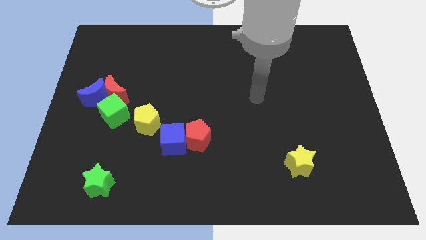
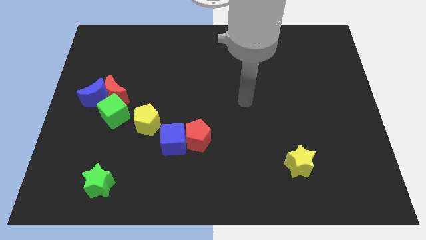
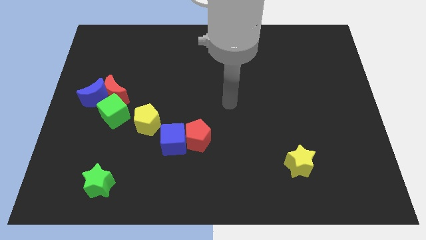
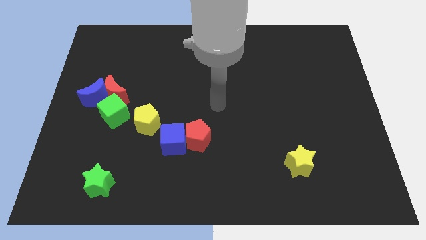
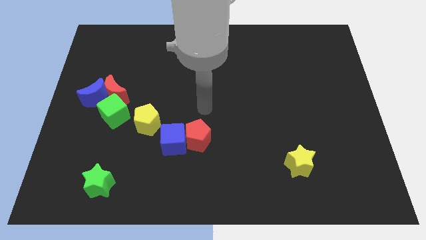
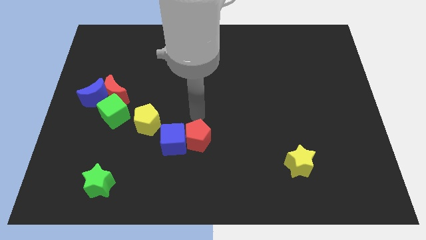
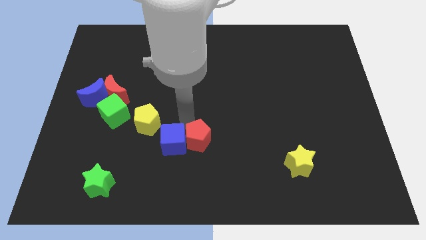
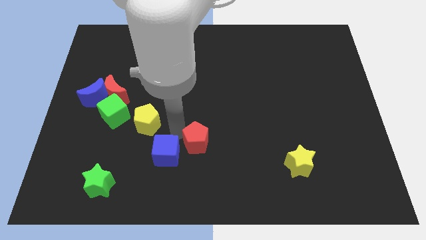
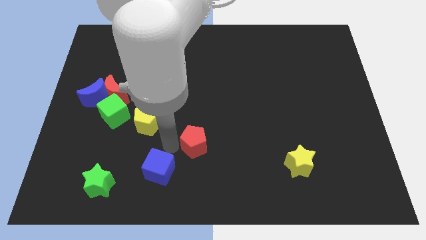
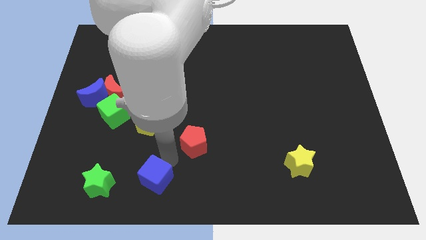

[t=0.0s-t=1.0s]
move the red pentagon away from the blue cube

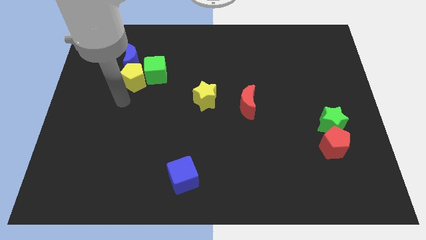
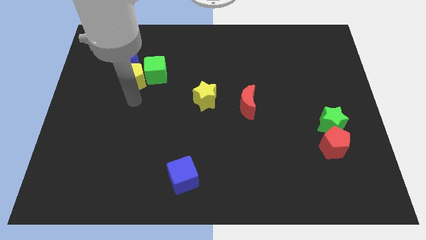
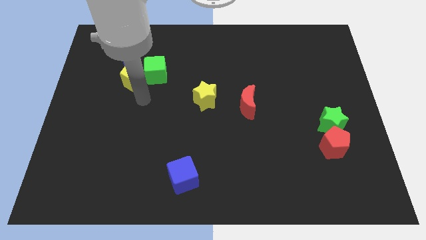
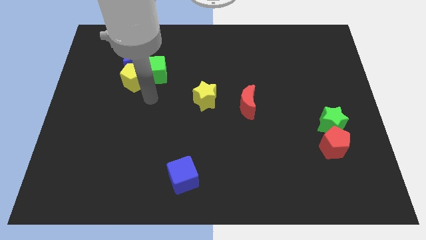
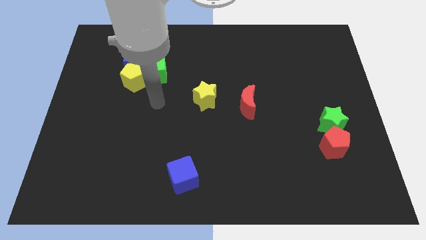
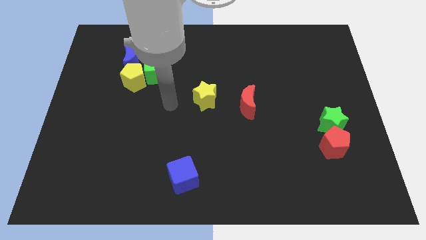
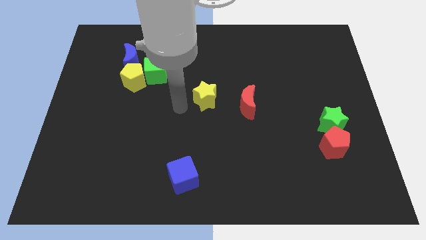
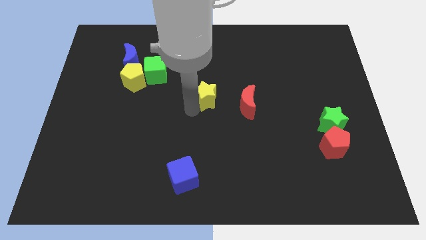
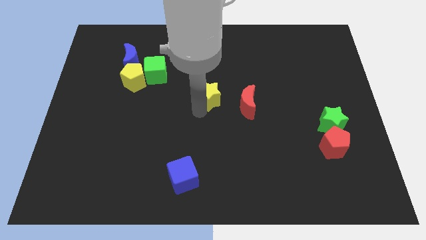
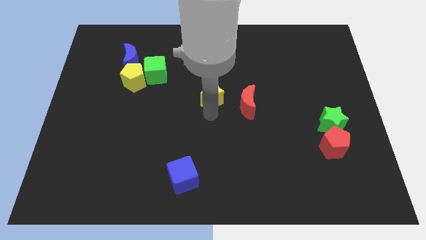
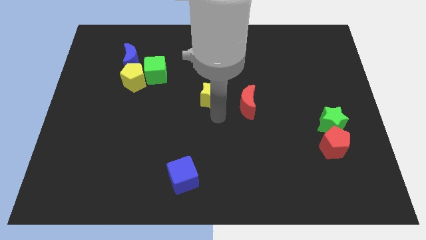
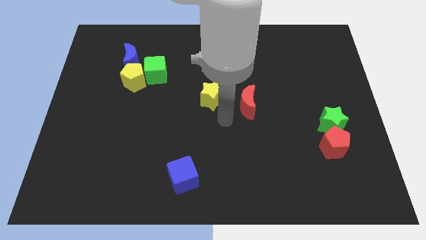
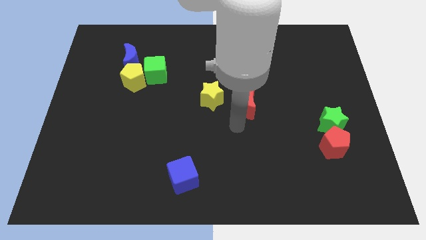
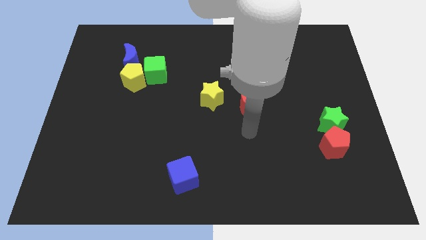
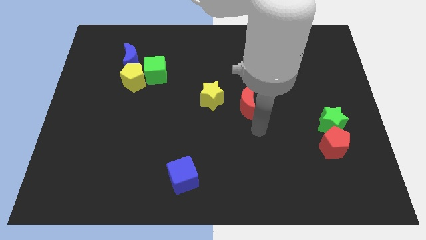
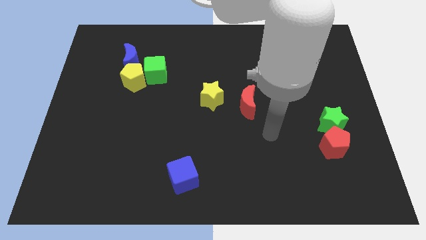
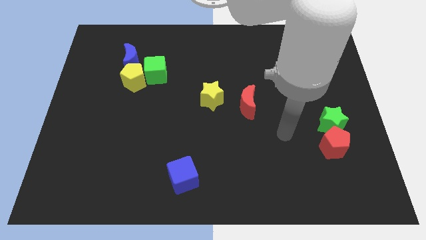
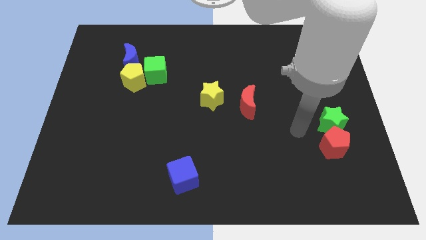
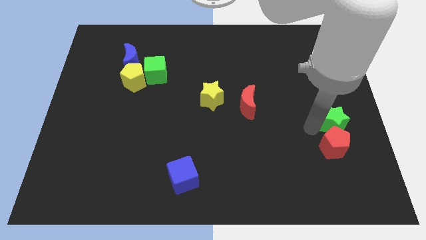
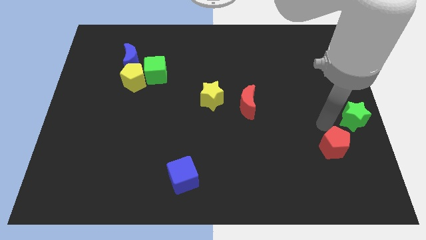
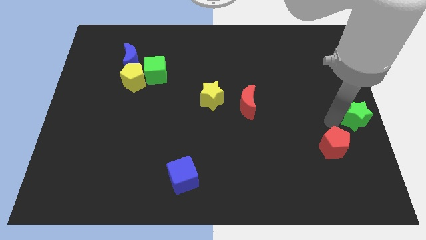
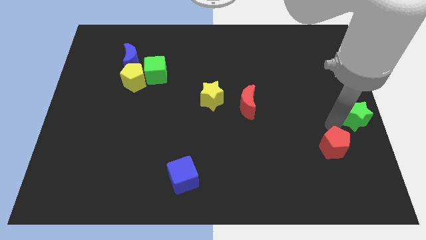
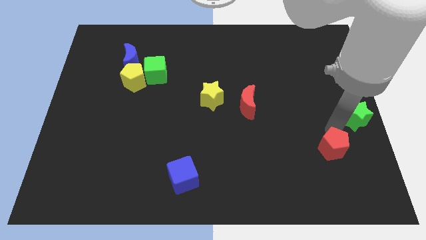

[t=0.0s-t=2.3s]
pull the red pentagon apart from the green star

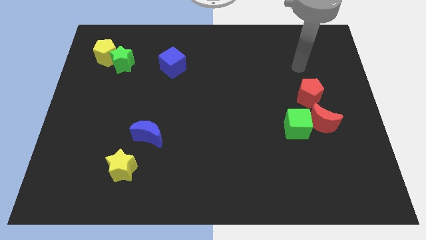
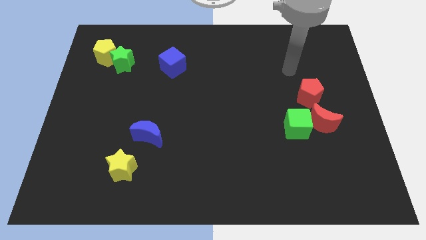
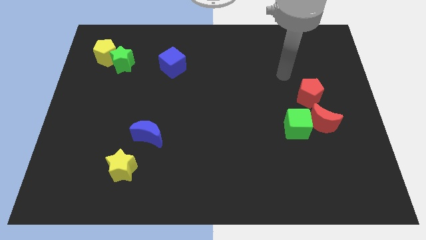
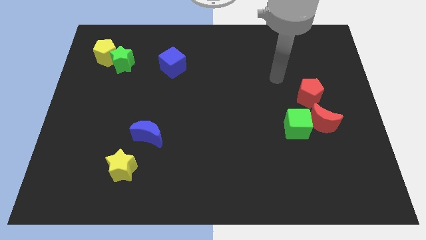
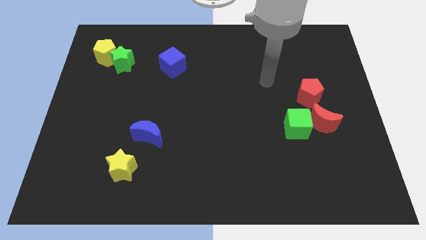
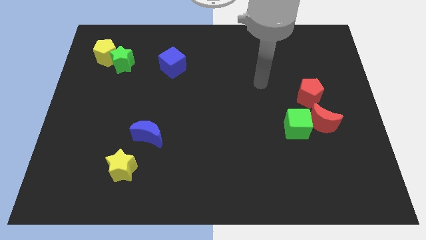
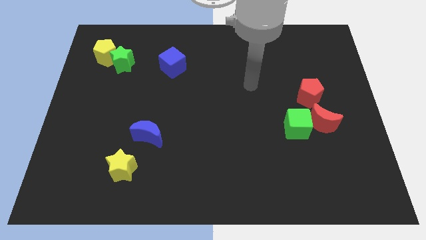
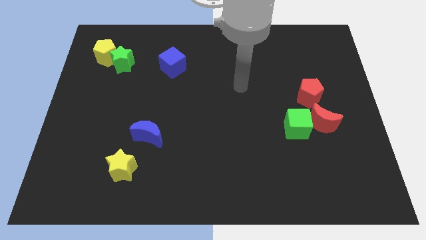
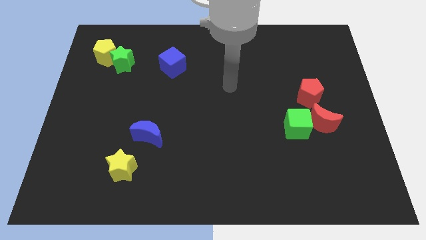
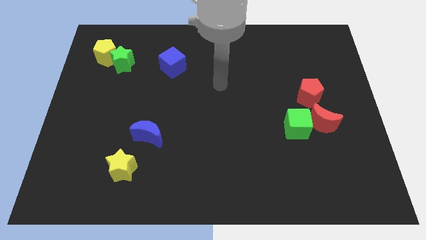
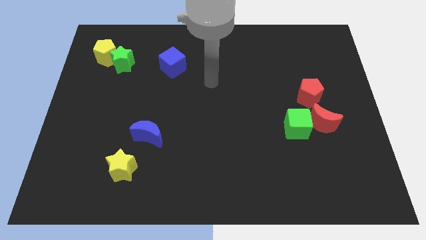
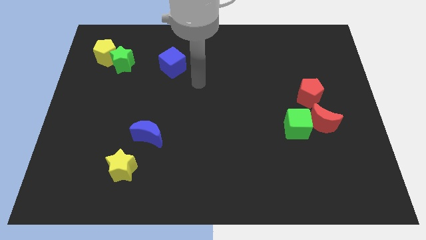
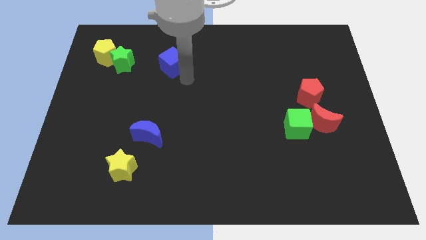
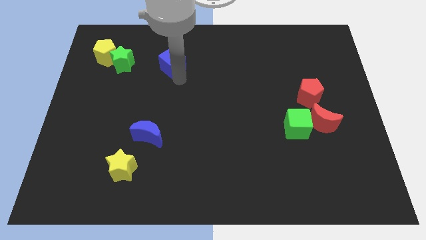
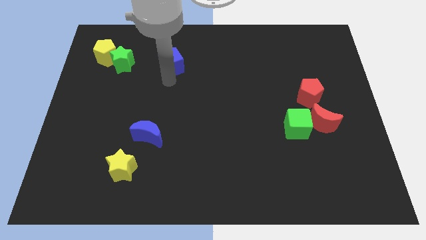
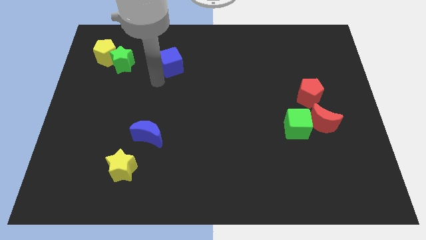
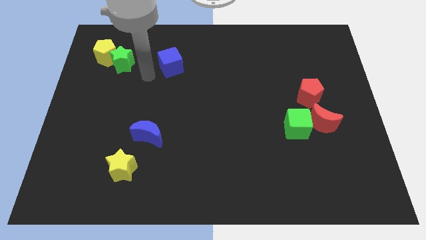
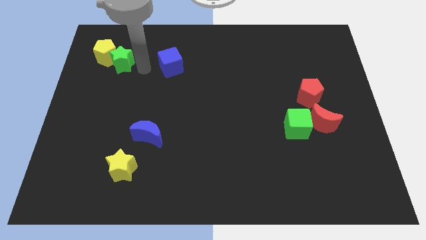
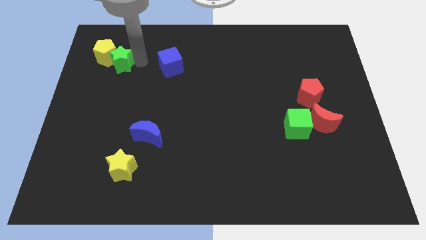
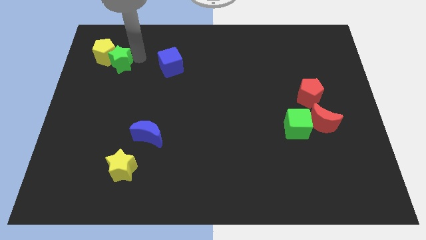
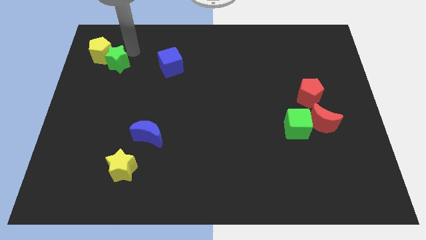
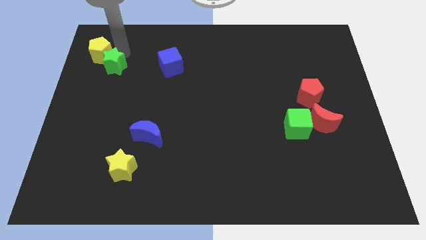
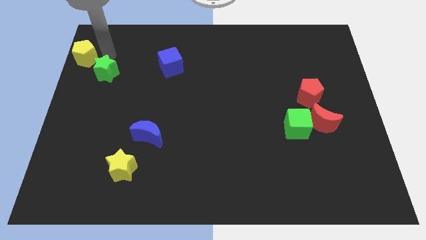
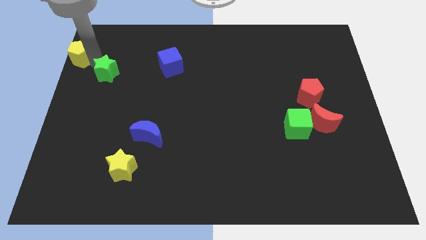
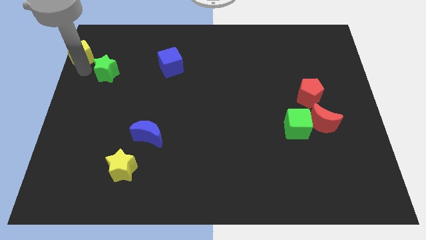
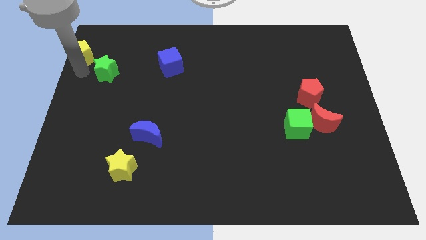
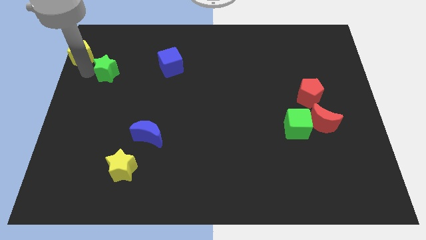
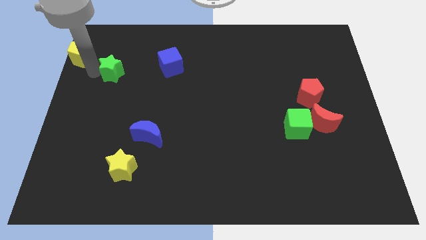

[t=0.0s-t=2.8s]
separate the green star from the yellow pentagon

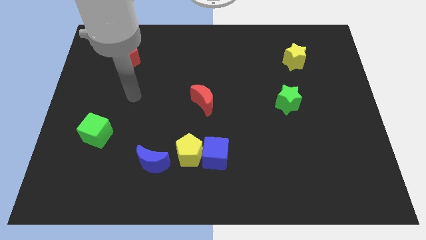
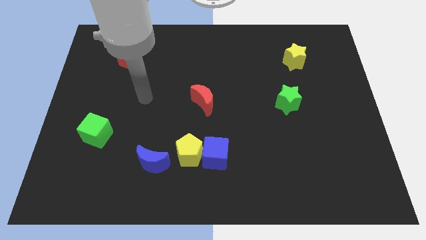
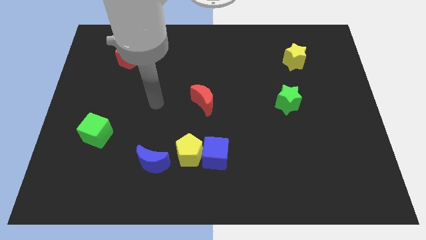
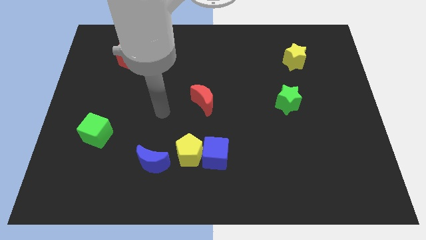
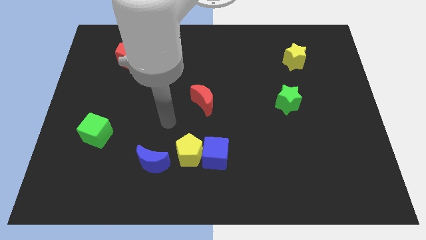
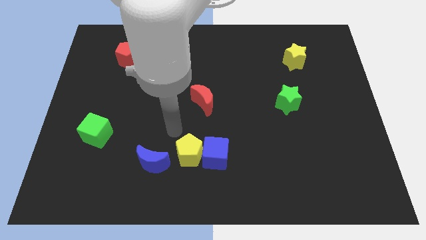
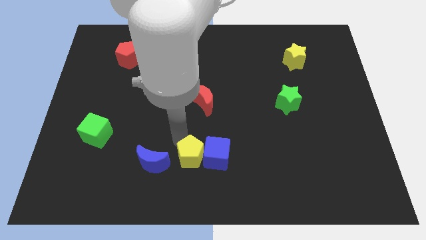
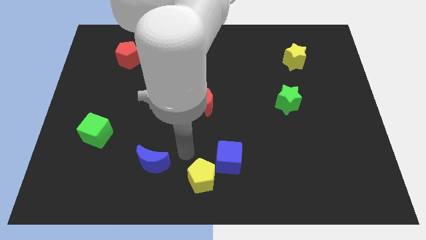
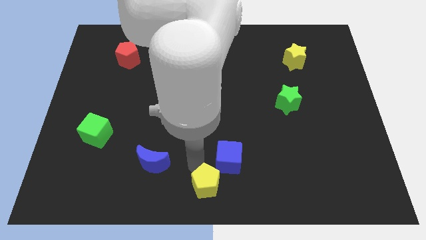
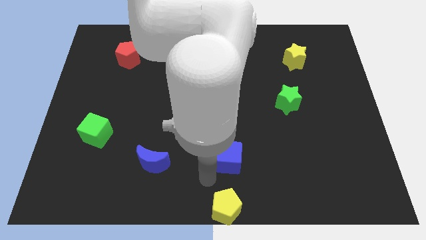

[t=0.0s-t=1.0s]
separate the blue cube from the yellow pentagon

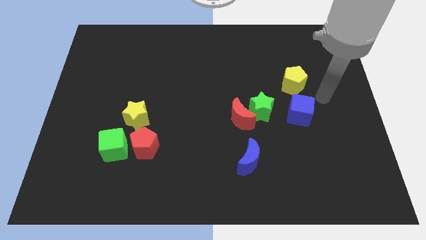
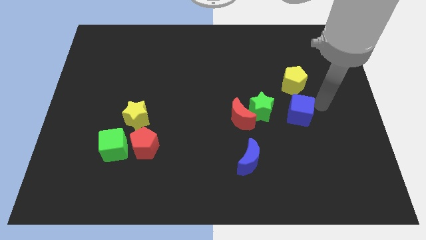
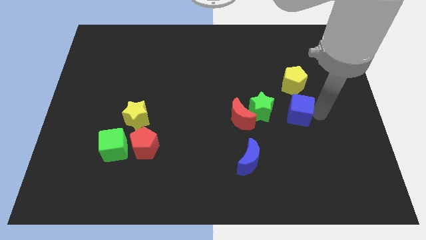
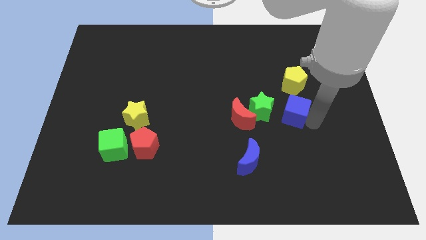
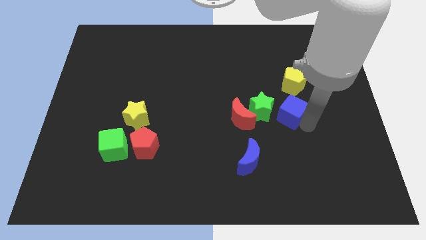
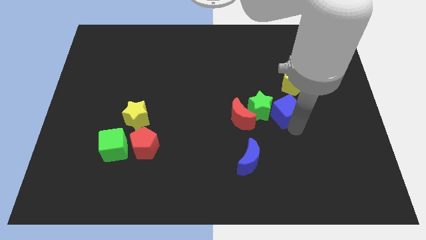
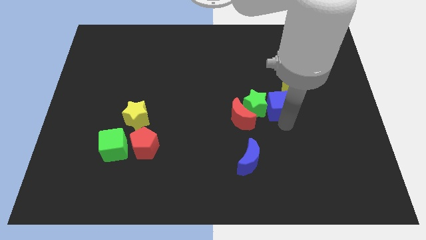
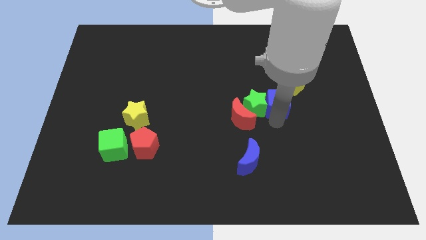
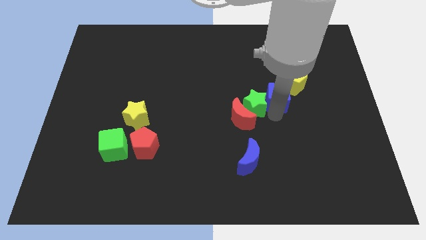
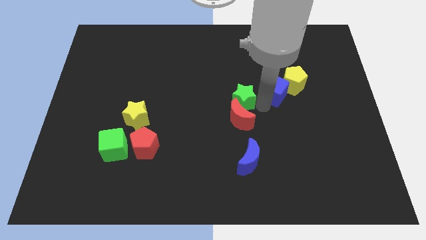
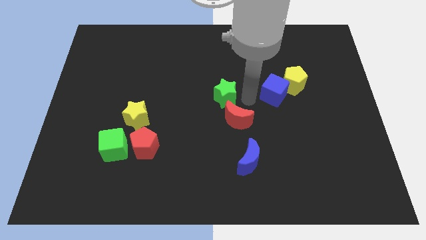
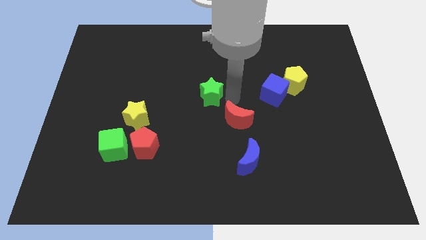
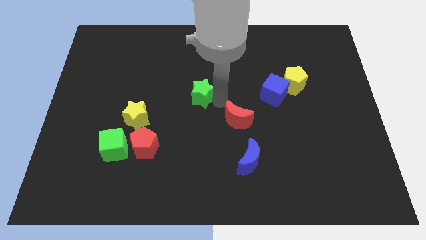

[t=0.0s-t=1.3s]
separate the red moon from the green star

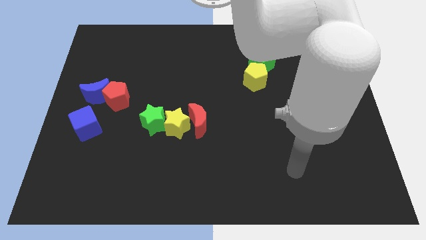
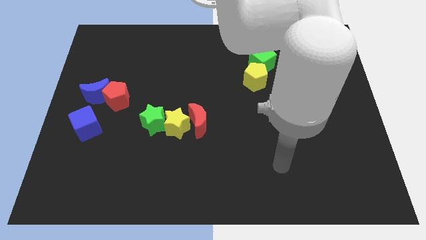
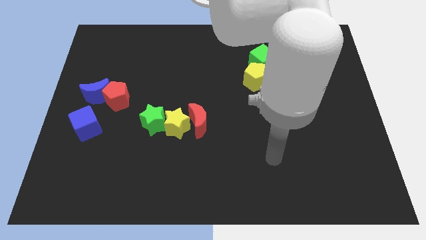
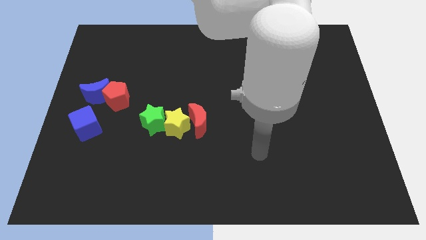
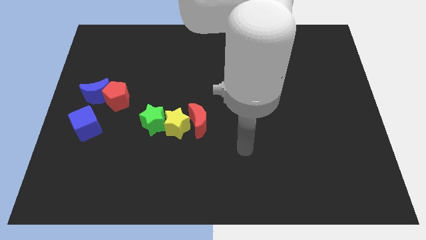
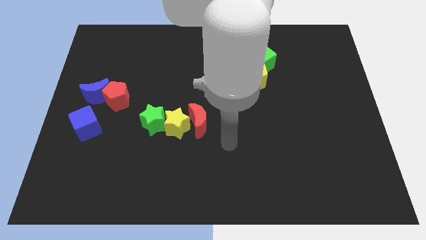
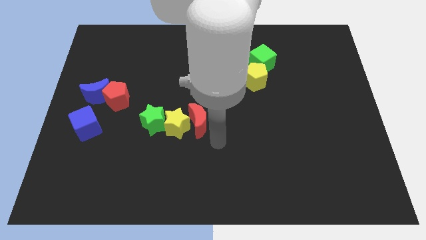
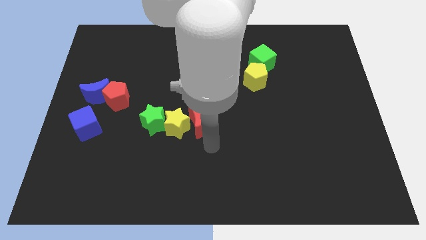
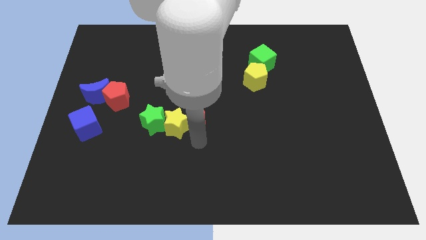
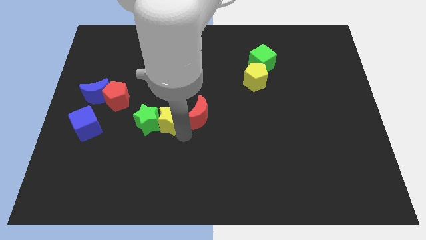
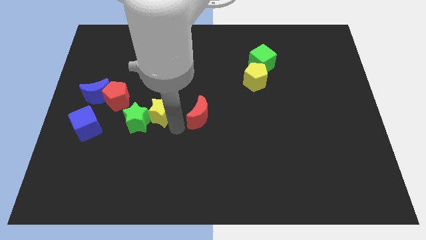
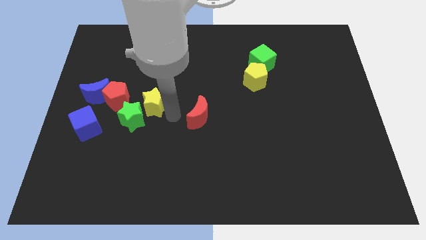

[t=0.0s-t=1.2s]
separate the red moon from the yellow star
